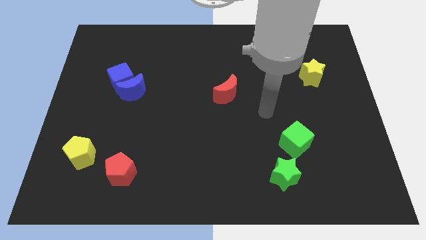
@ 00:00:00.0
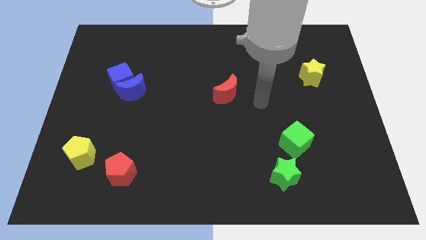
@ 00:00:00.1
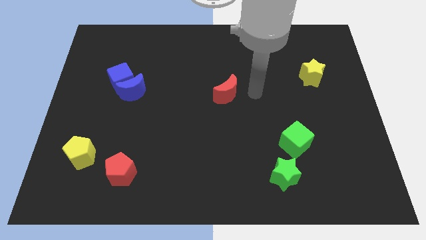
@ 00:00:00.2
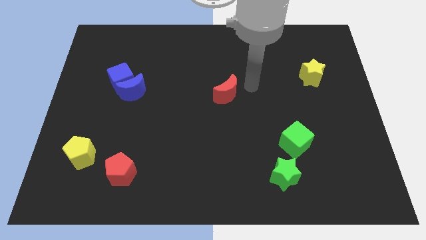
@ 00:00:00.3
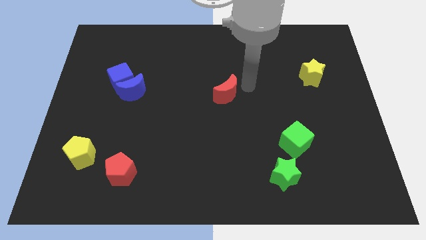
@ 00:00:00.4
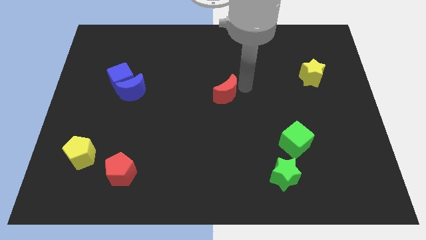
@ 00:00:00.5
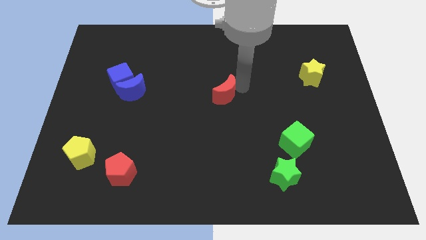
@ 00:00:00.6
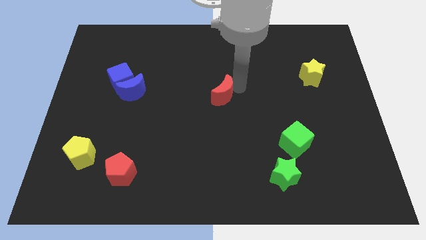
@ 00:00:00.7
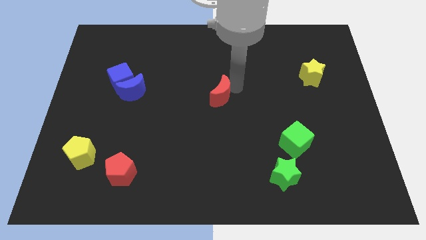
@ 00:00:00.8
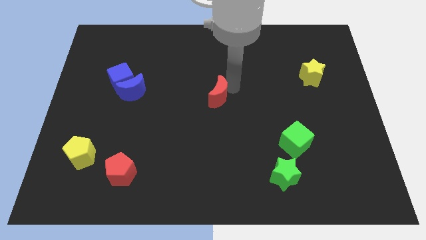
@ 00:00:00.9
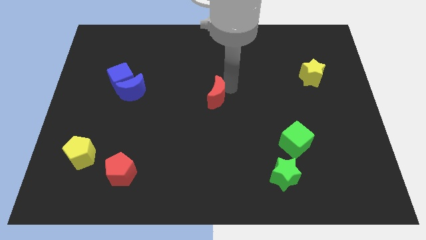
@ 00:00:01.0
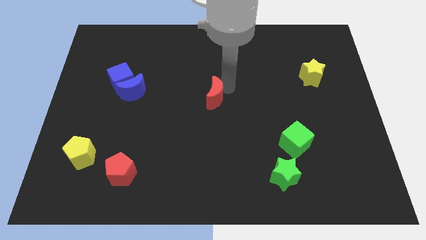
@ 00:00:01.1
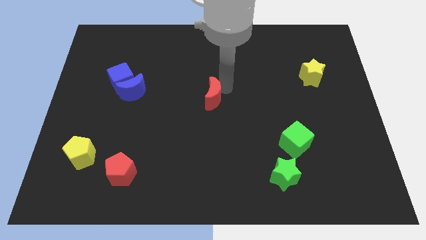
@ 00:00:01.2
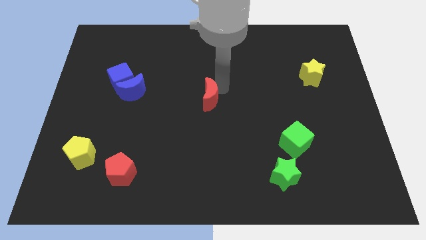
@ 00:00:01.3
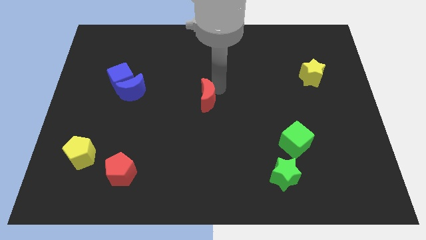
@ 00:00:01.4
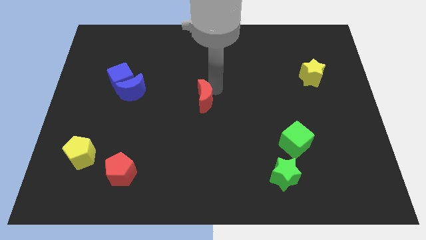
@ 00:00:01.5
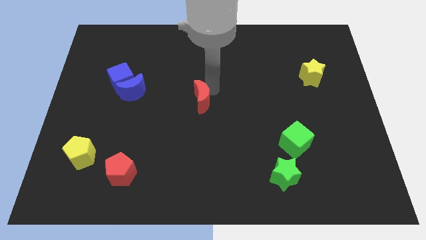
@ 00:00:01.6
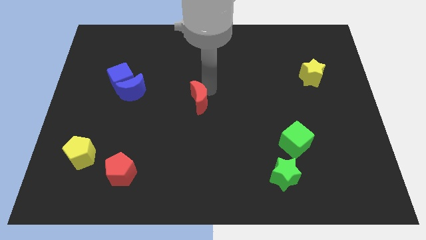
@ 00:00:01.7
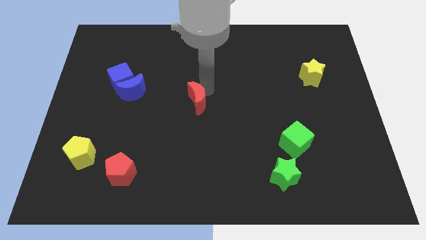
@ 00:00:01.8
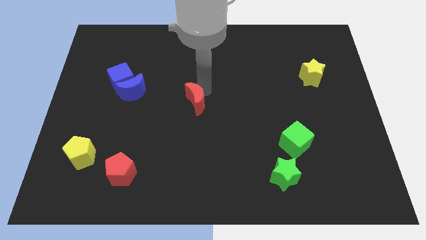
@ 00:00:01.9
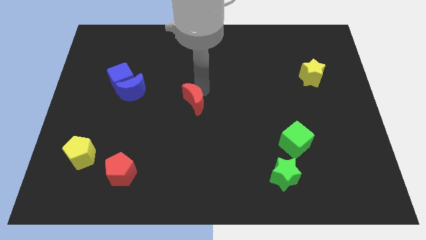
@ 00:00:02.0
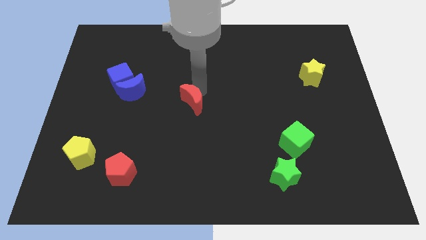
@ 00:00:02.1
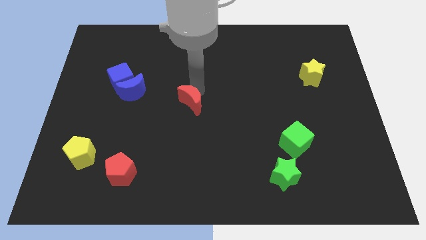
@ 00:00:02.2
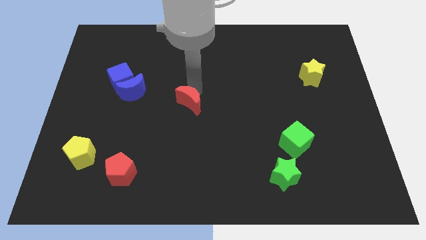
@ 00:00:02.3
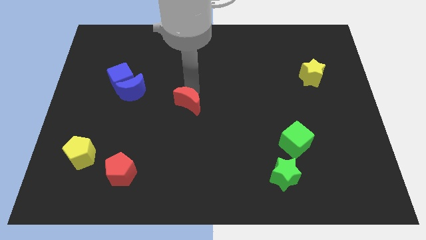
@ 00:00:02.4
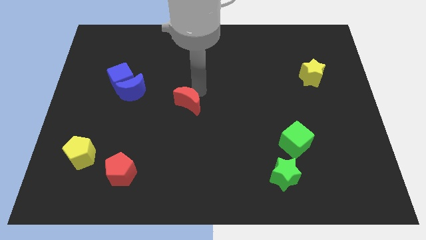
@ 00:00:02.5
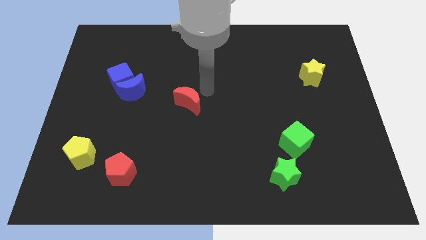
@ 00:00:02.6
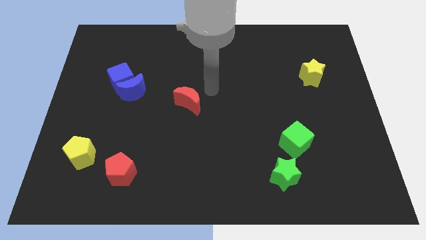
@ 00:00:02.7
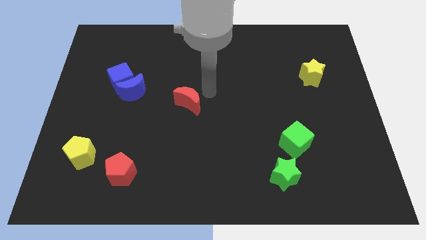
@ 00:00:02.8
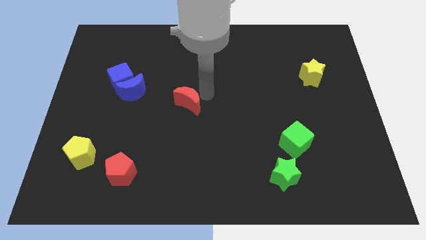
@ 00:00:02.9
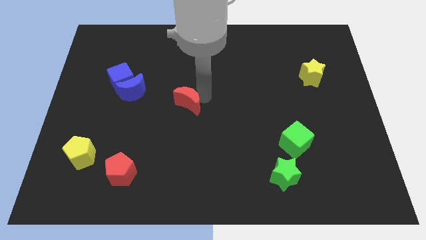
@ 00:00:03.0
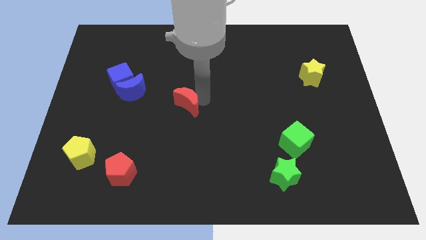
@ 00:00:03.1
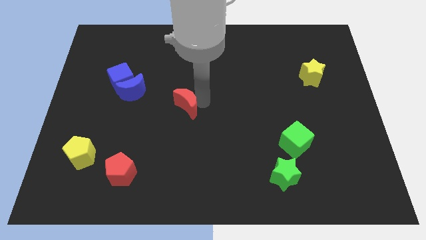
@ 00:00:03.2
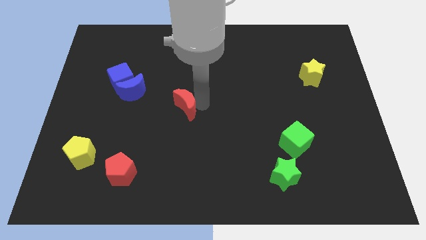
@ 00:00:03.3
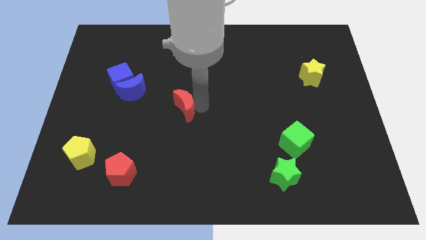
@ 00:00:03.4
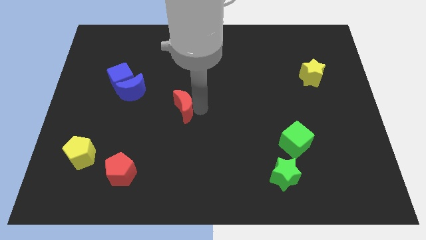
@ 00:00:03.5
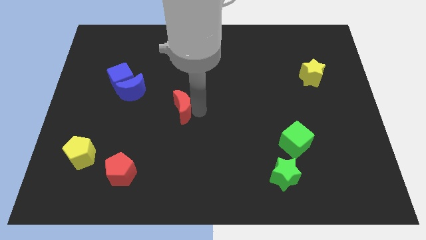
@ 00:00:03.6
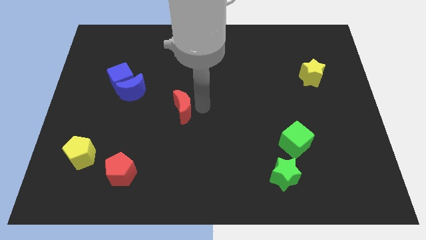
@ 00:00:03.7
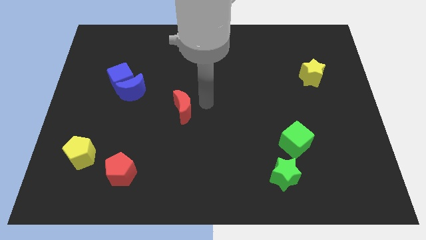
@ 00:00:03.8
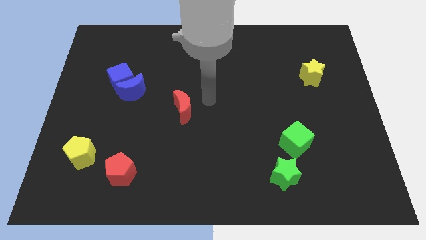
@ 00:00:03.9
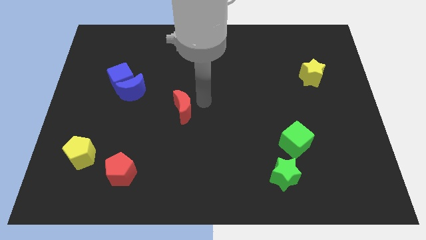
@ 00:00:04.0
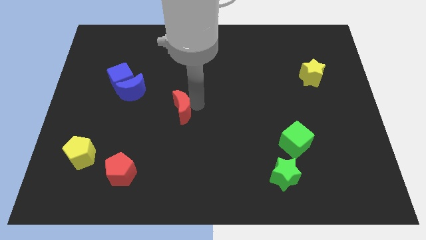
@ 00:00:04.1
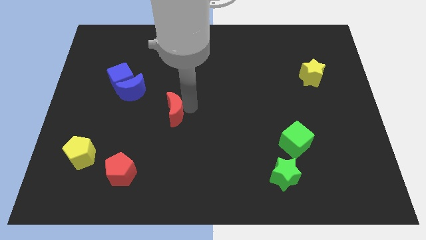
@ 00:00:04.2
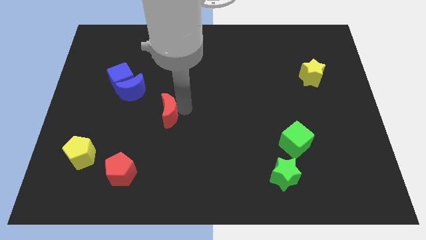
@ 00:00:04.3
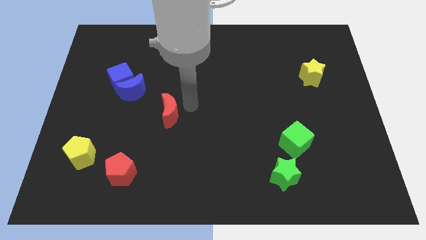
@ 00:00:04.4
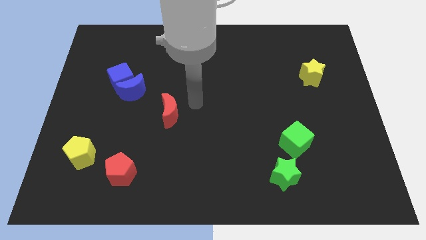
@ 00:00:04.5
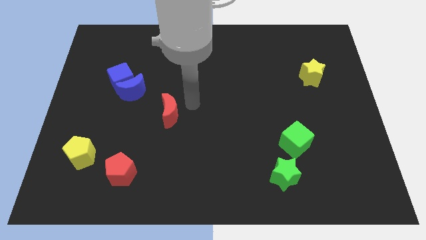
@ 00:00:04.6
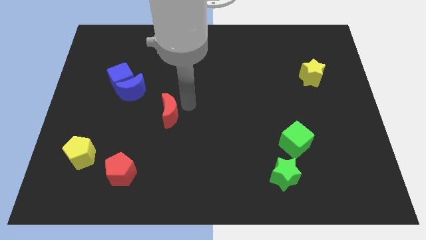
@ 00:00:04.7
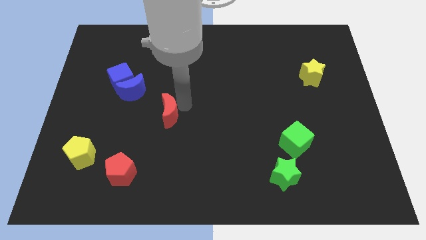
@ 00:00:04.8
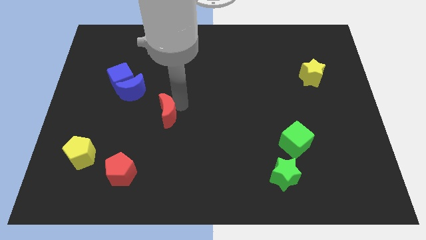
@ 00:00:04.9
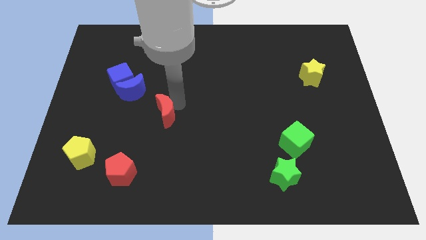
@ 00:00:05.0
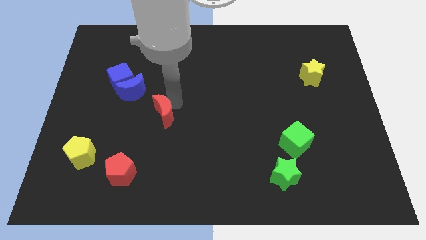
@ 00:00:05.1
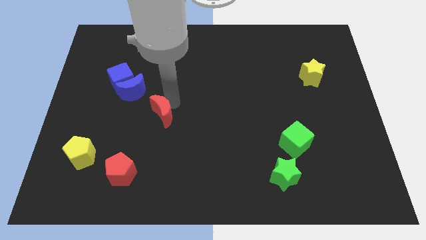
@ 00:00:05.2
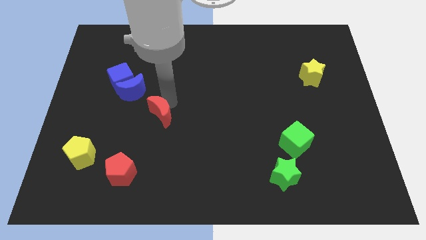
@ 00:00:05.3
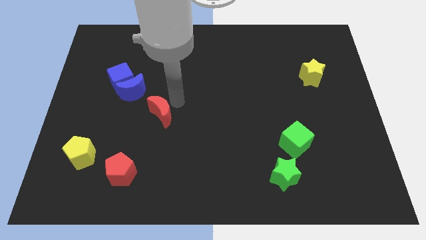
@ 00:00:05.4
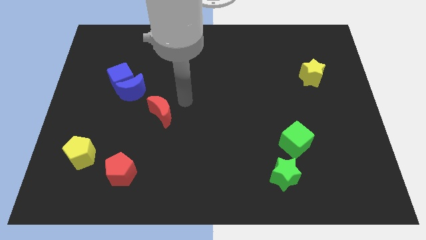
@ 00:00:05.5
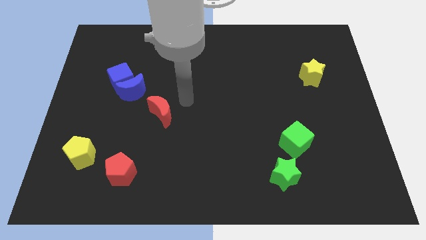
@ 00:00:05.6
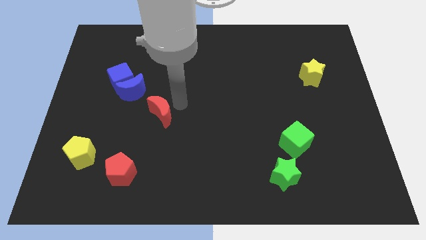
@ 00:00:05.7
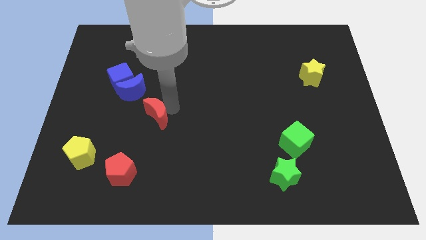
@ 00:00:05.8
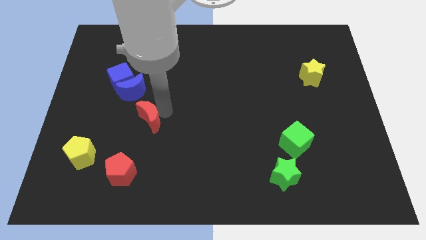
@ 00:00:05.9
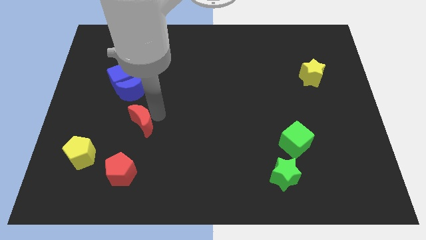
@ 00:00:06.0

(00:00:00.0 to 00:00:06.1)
move the red moon above the red pentagon

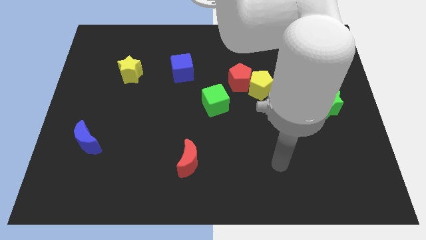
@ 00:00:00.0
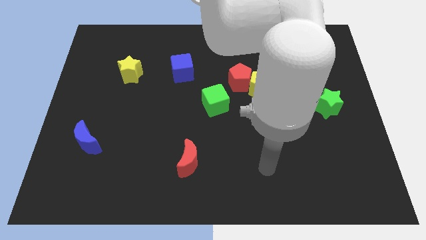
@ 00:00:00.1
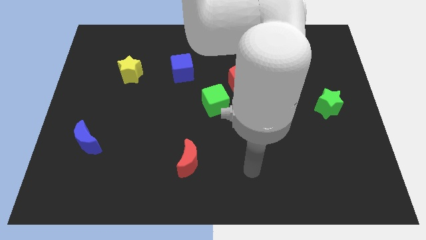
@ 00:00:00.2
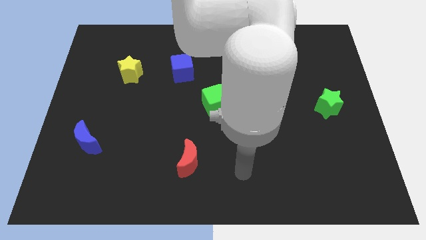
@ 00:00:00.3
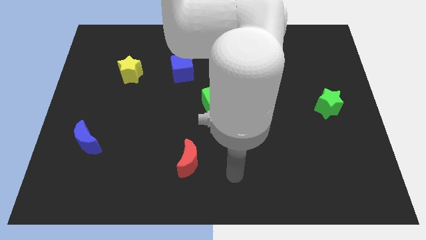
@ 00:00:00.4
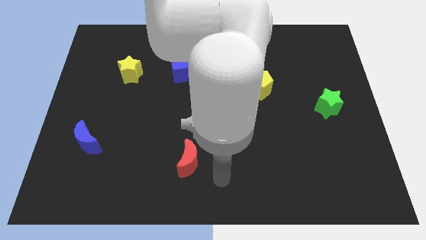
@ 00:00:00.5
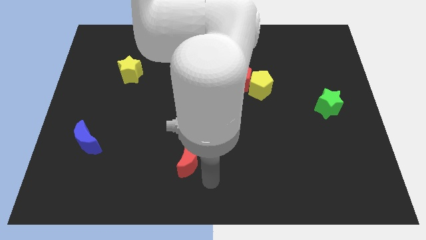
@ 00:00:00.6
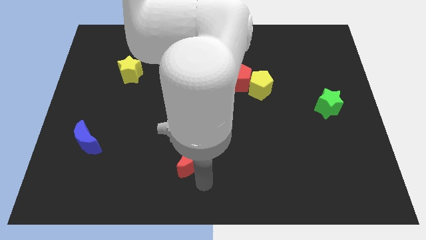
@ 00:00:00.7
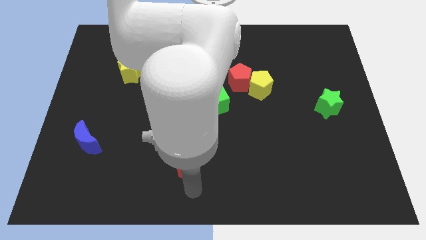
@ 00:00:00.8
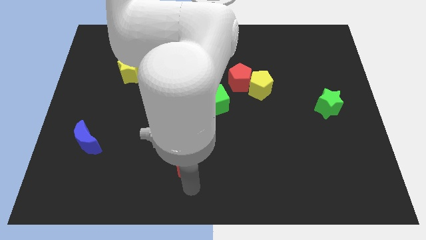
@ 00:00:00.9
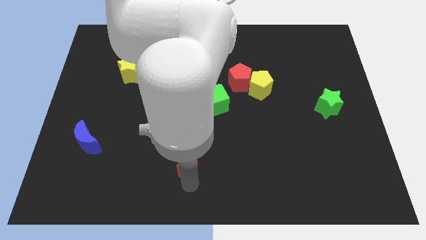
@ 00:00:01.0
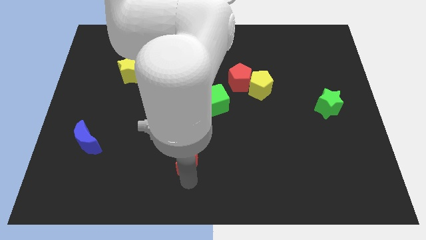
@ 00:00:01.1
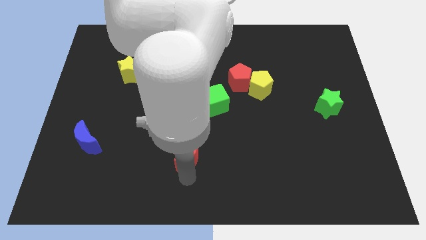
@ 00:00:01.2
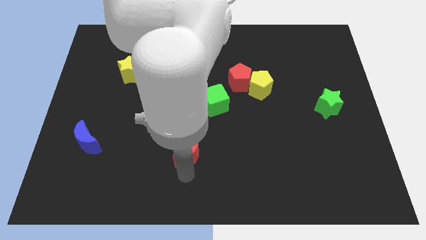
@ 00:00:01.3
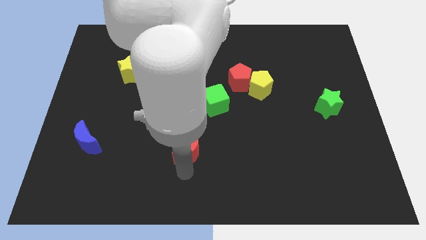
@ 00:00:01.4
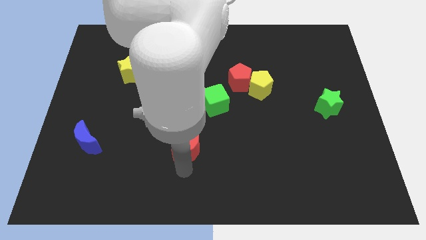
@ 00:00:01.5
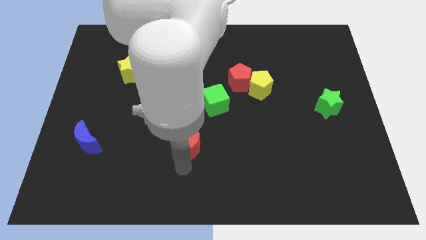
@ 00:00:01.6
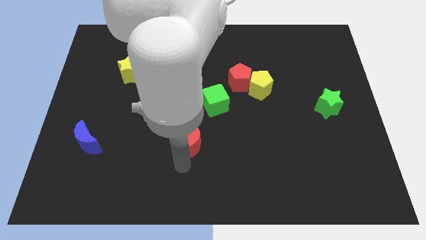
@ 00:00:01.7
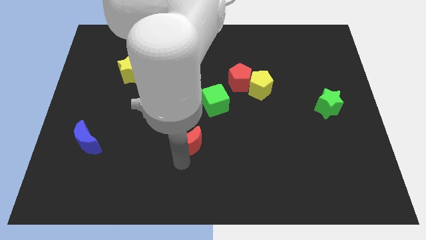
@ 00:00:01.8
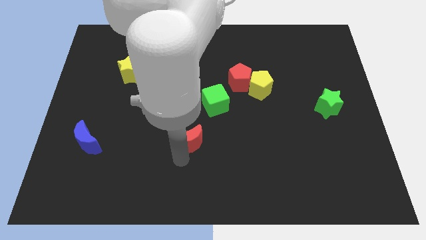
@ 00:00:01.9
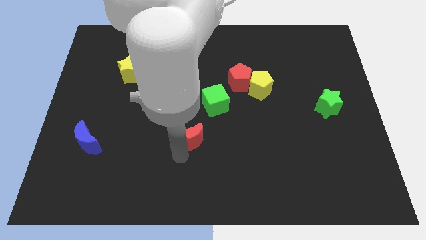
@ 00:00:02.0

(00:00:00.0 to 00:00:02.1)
slide the red moon to the bottom left of the green cube
